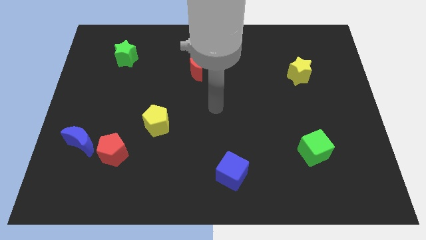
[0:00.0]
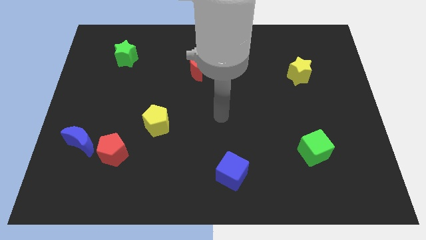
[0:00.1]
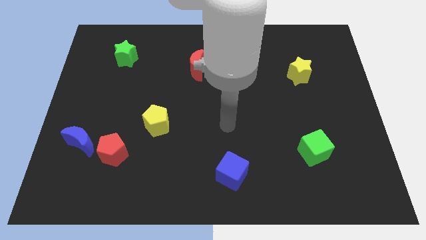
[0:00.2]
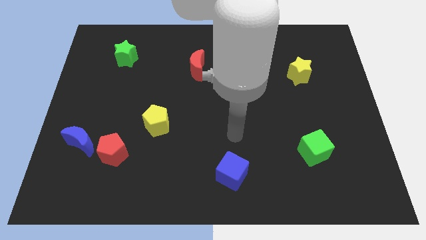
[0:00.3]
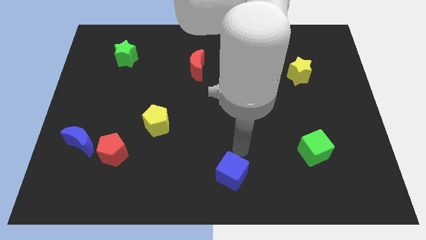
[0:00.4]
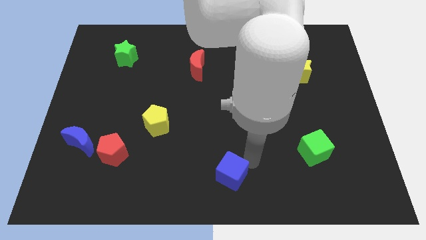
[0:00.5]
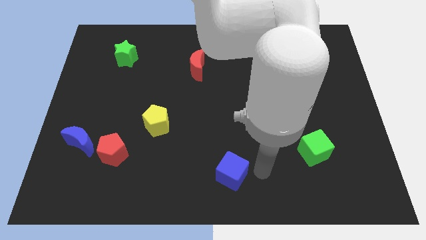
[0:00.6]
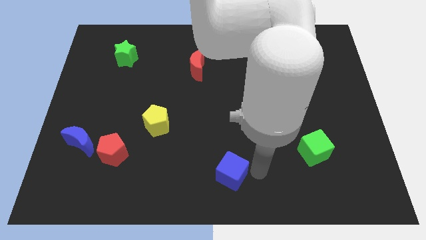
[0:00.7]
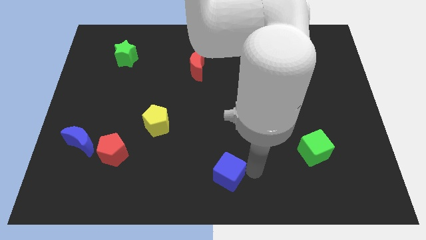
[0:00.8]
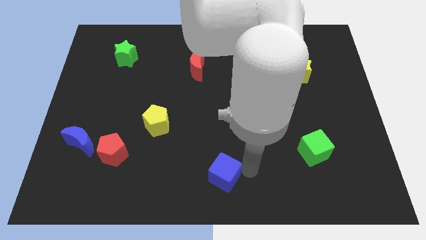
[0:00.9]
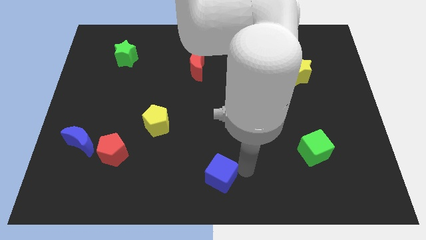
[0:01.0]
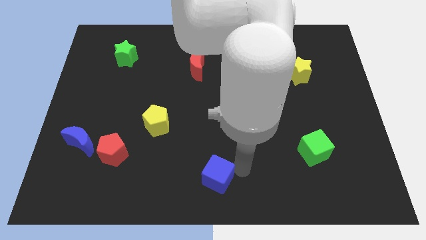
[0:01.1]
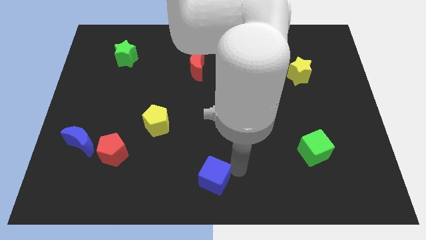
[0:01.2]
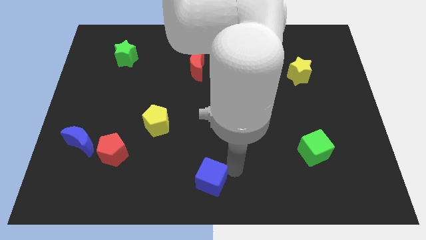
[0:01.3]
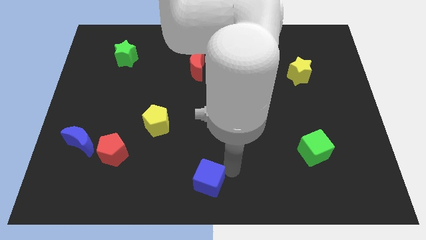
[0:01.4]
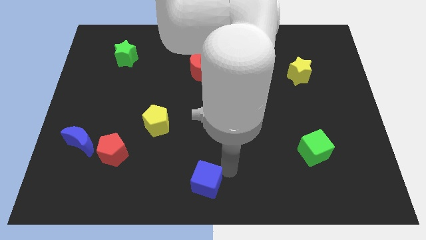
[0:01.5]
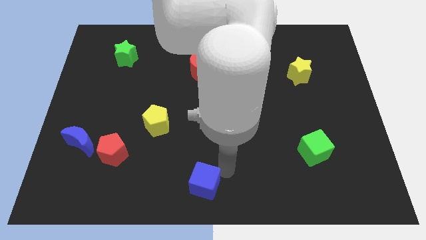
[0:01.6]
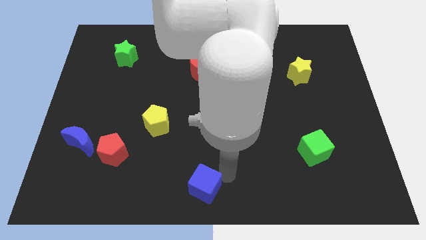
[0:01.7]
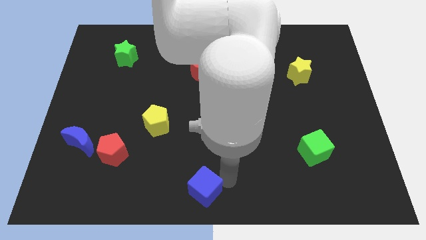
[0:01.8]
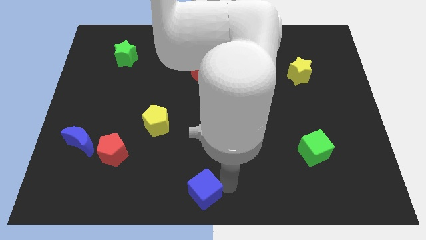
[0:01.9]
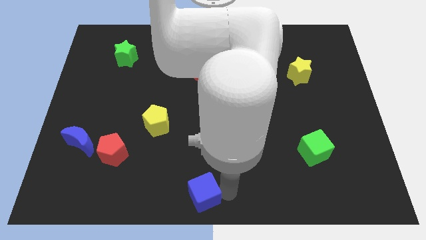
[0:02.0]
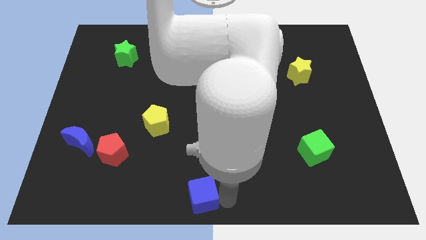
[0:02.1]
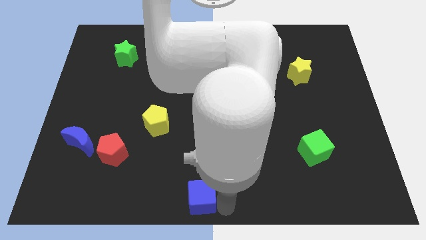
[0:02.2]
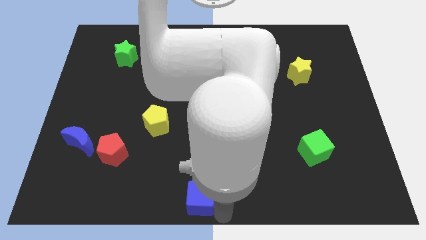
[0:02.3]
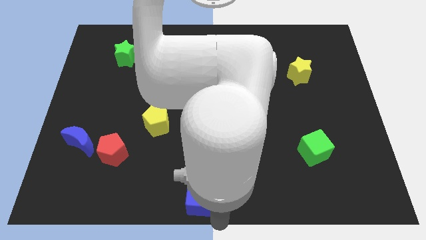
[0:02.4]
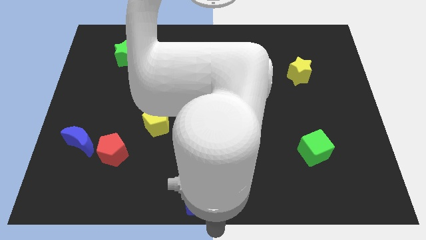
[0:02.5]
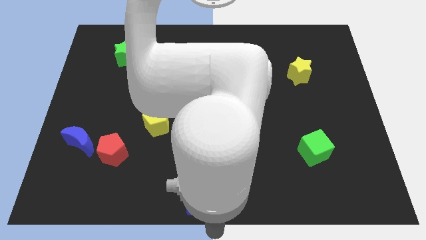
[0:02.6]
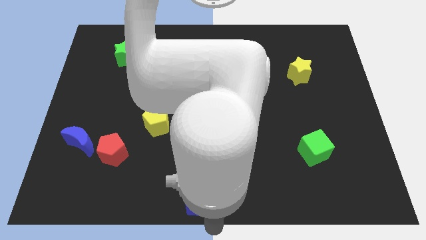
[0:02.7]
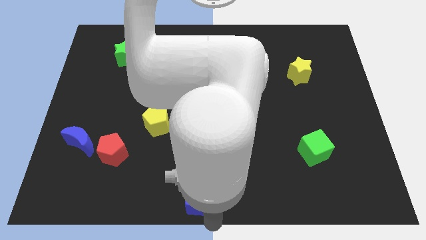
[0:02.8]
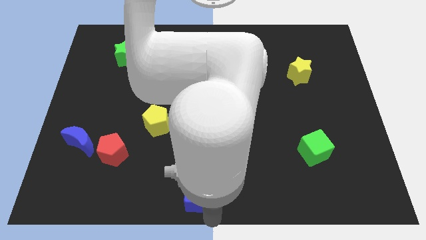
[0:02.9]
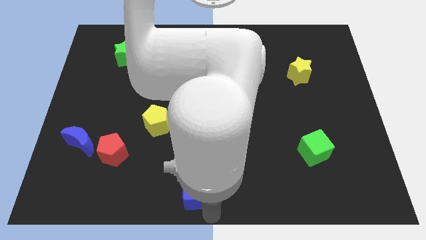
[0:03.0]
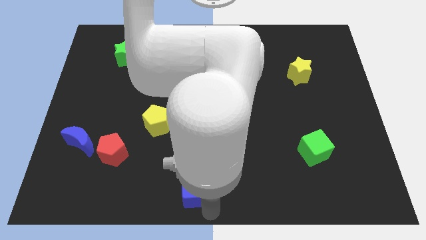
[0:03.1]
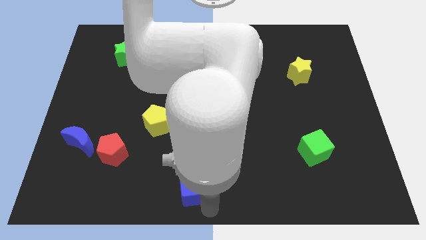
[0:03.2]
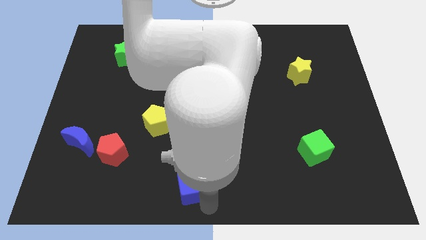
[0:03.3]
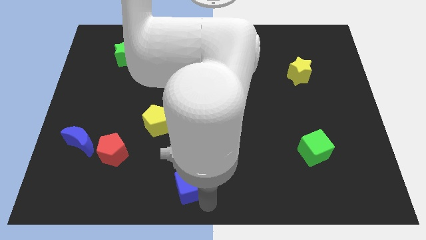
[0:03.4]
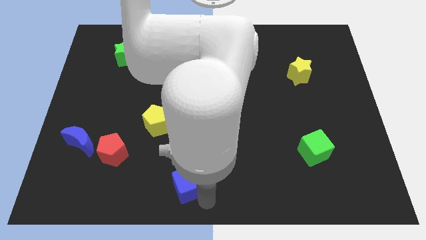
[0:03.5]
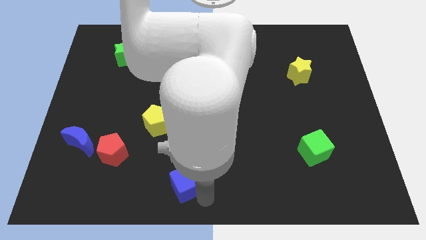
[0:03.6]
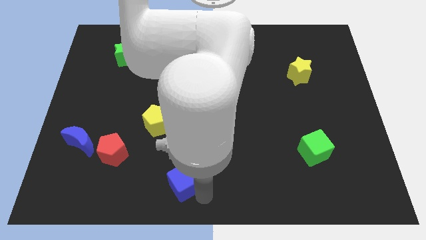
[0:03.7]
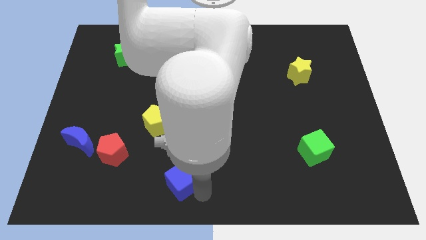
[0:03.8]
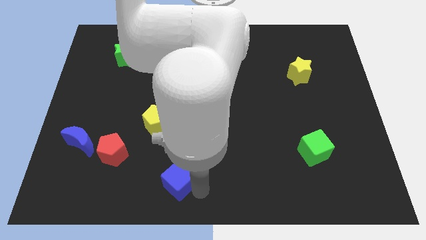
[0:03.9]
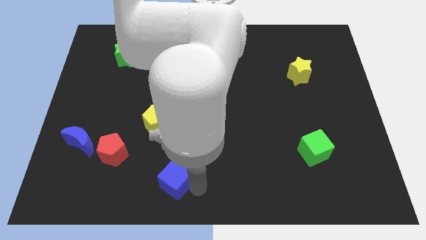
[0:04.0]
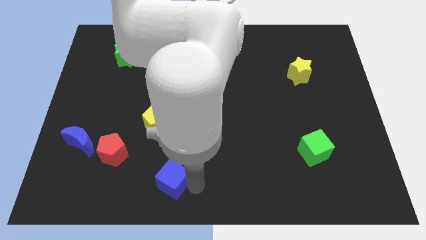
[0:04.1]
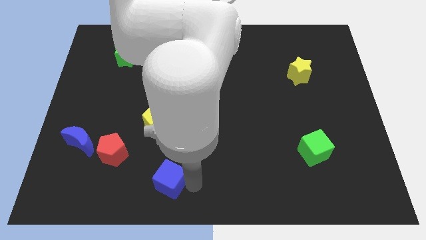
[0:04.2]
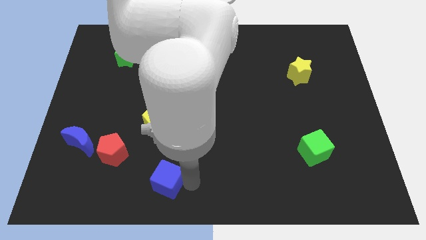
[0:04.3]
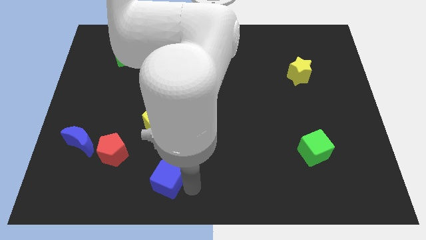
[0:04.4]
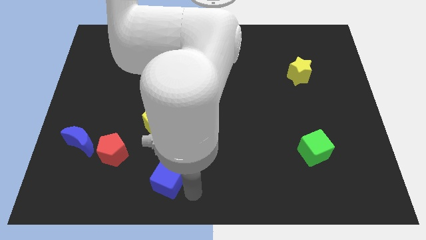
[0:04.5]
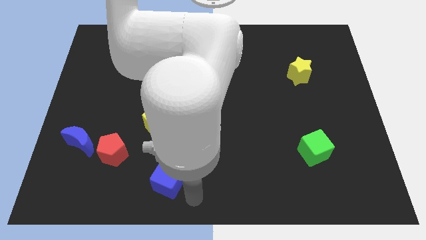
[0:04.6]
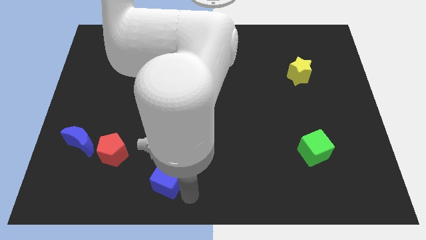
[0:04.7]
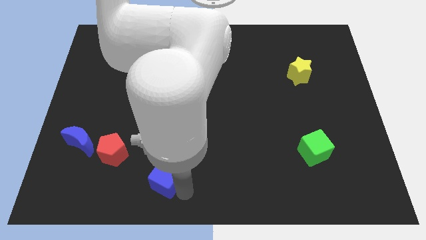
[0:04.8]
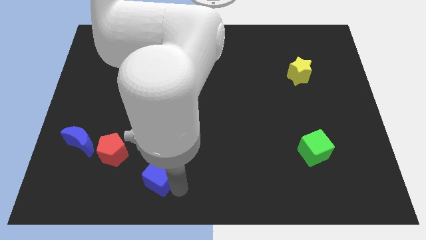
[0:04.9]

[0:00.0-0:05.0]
push the blue cube diagonally down and to the right of the red pentagon

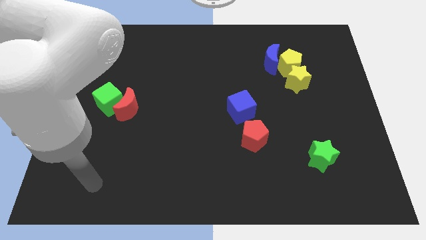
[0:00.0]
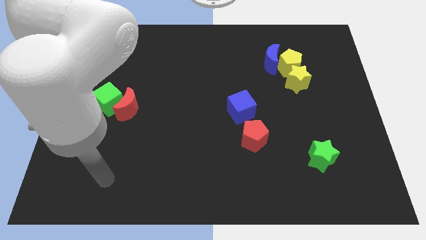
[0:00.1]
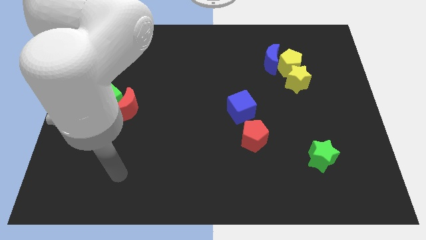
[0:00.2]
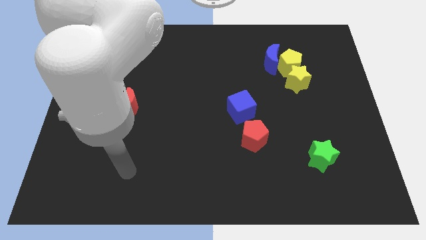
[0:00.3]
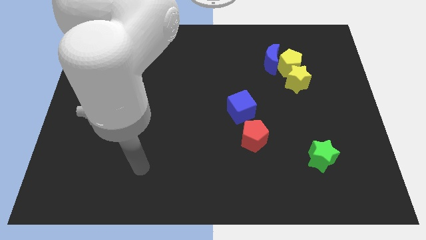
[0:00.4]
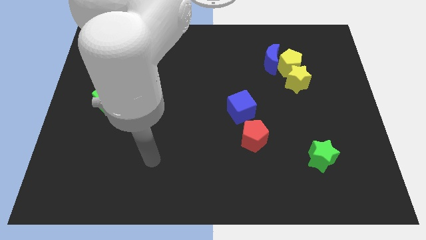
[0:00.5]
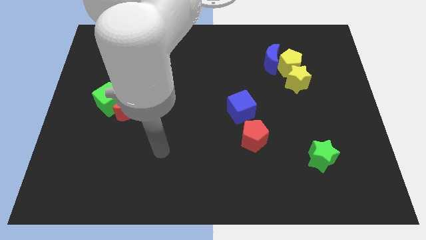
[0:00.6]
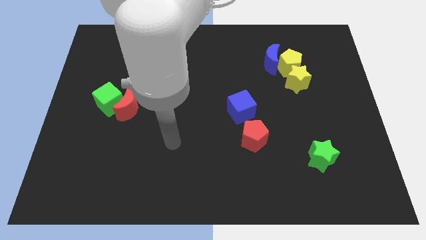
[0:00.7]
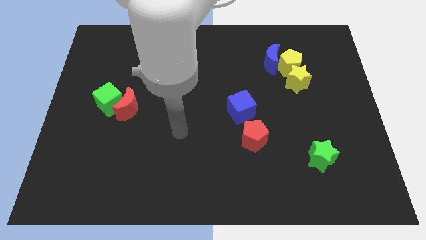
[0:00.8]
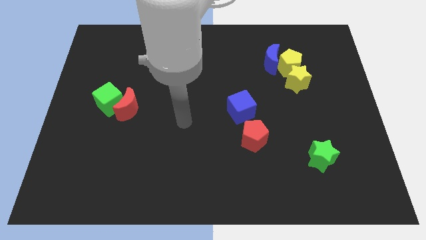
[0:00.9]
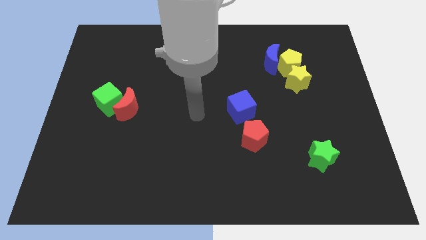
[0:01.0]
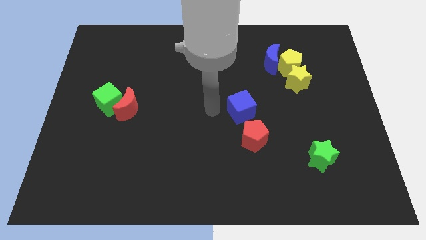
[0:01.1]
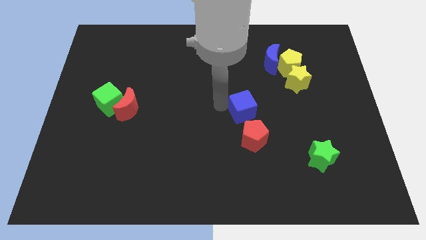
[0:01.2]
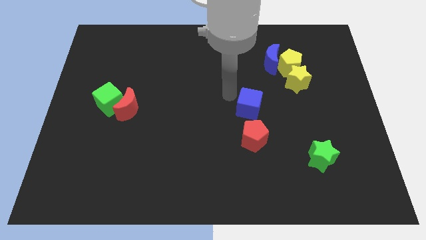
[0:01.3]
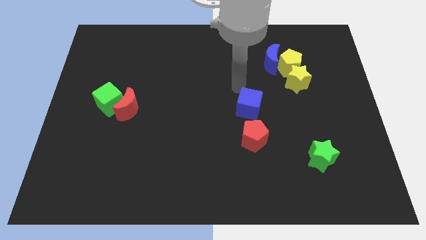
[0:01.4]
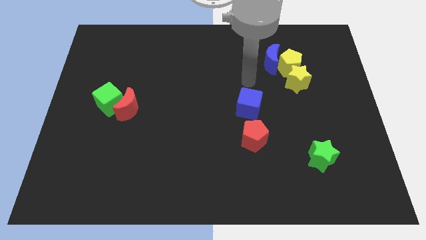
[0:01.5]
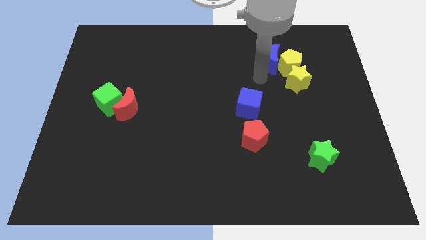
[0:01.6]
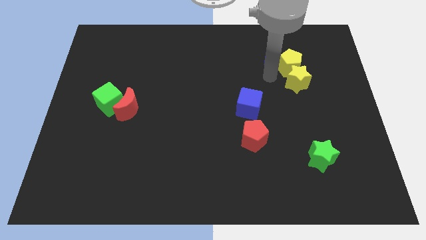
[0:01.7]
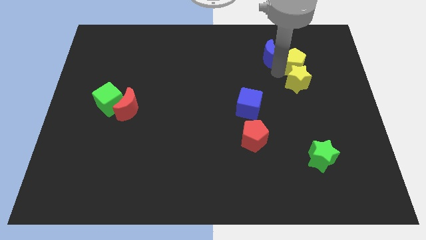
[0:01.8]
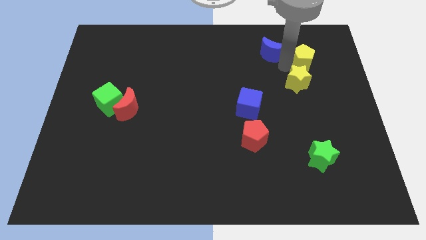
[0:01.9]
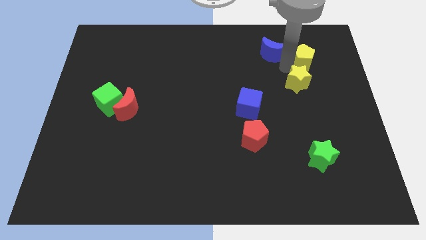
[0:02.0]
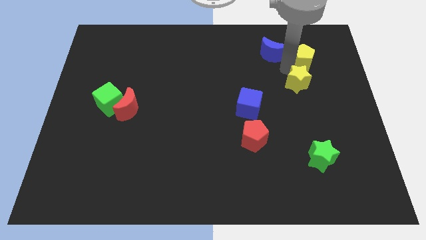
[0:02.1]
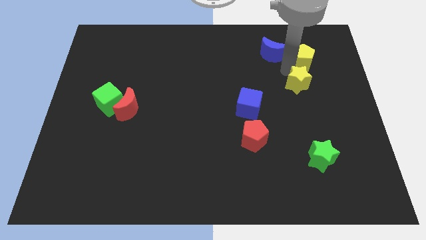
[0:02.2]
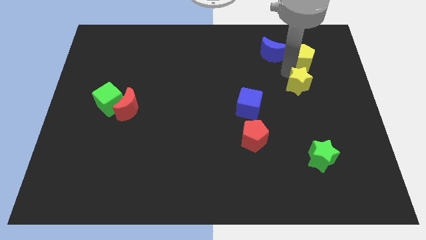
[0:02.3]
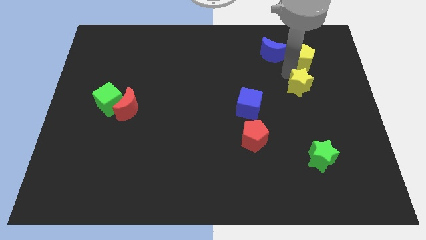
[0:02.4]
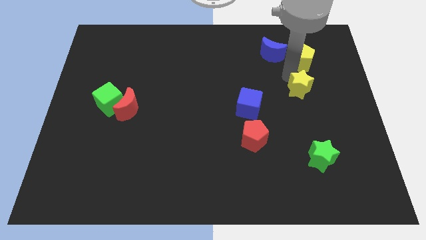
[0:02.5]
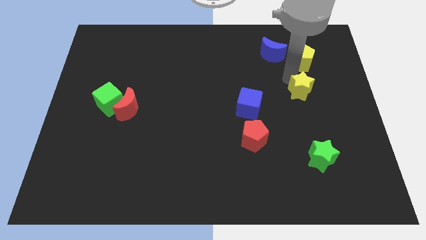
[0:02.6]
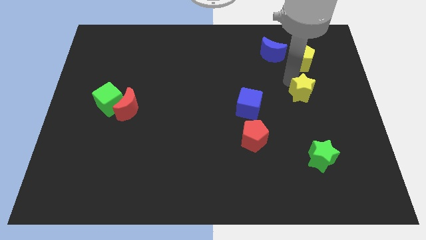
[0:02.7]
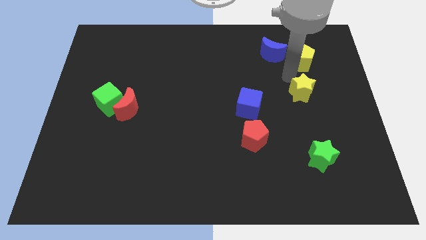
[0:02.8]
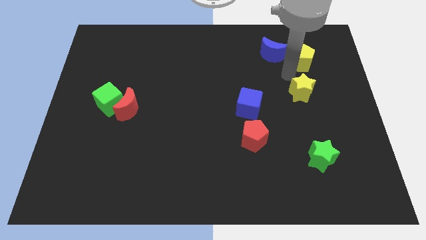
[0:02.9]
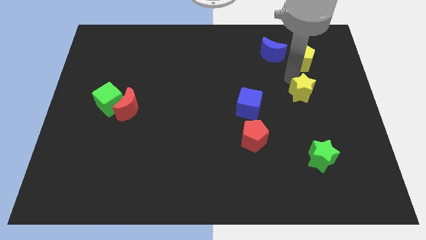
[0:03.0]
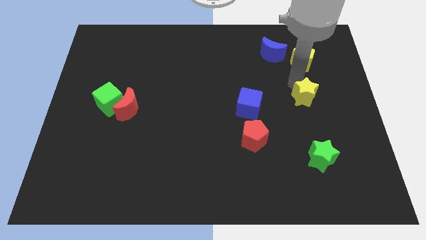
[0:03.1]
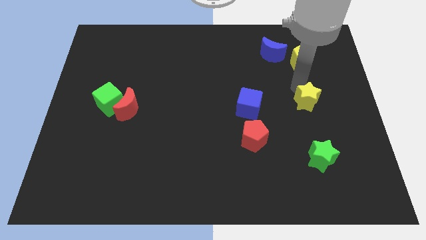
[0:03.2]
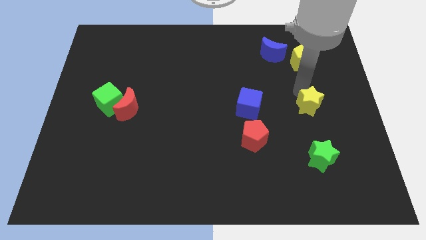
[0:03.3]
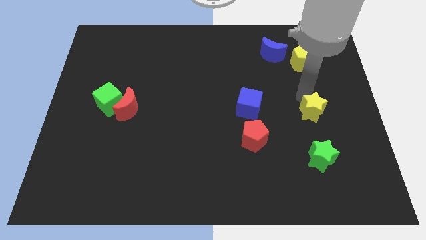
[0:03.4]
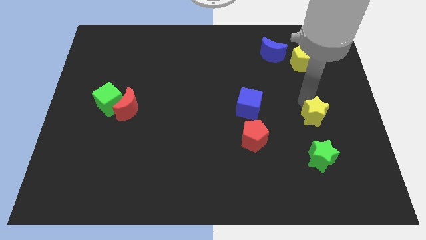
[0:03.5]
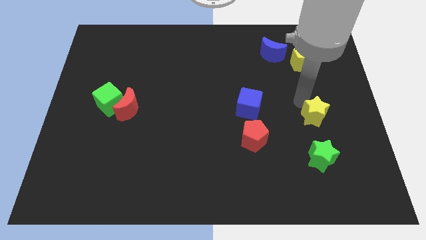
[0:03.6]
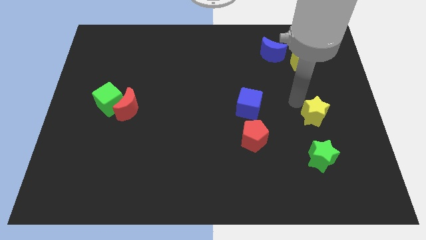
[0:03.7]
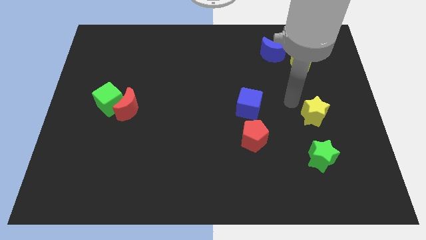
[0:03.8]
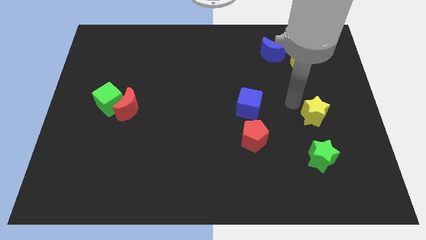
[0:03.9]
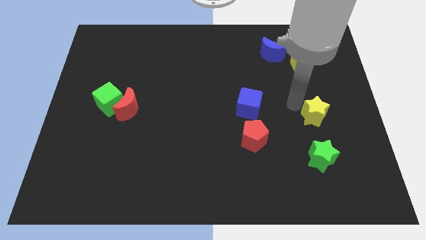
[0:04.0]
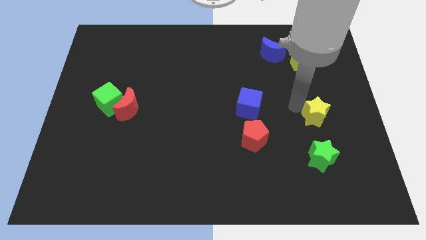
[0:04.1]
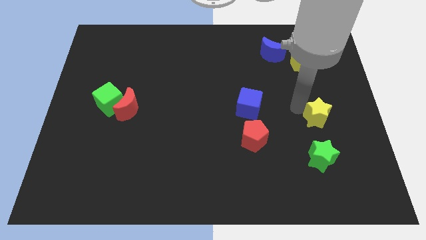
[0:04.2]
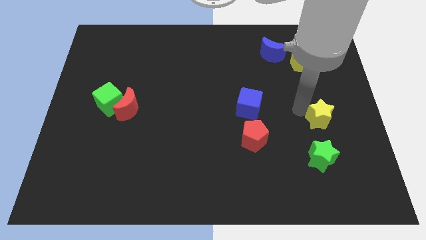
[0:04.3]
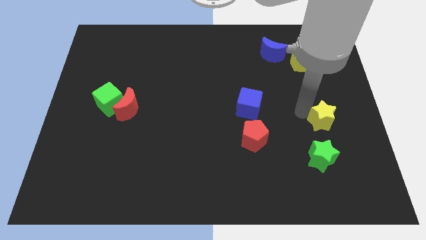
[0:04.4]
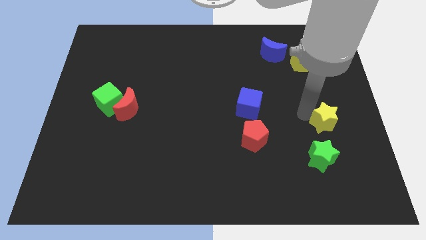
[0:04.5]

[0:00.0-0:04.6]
push the yellow star to the top right side of the green star
